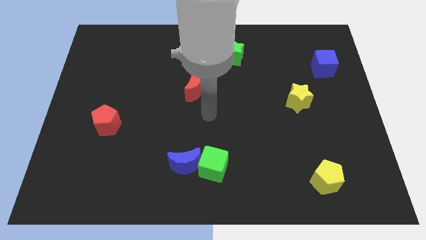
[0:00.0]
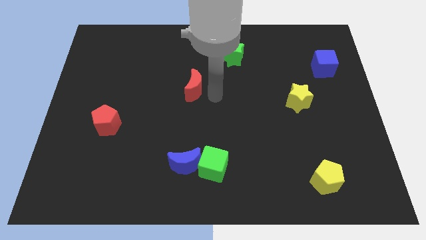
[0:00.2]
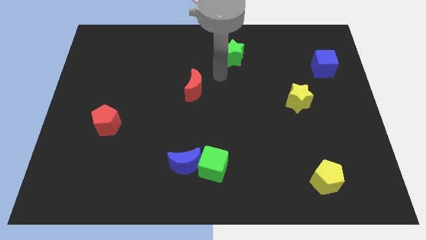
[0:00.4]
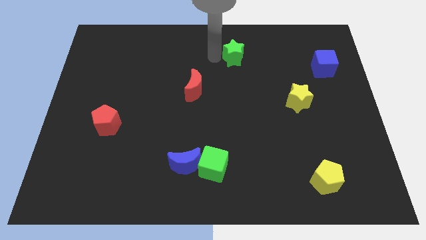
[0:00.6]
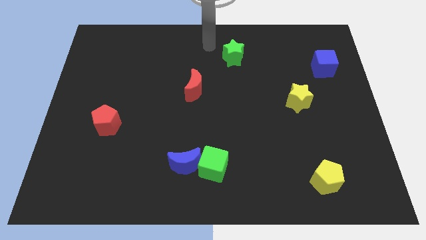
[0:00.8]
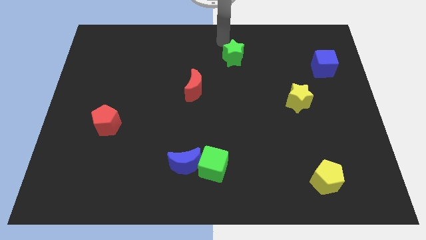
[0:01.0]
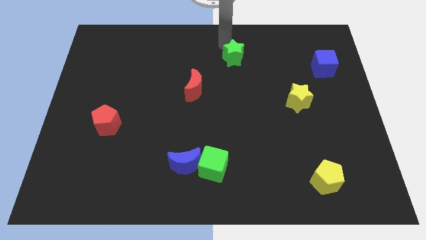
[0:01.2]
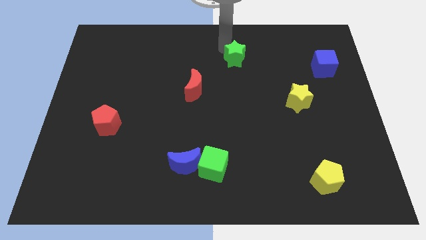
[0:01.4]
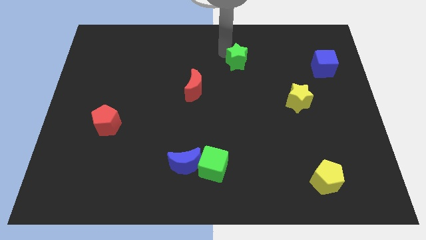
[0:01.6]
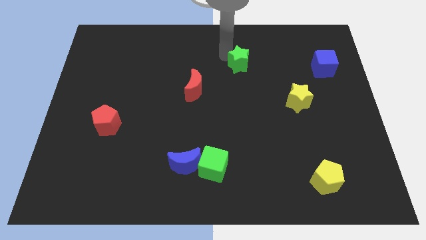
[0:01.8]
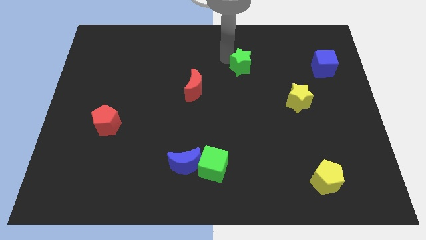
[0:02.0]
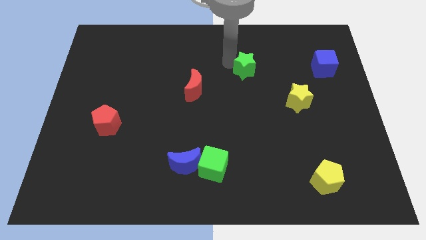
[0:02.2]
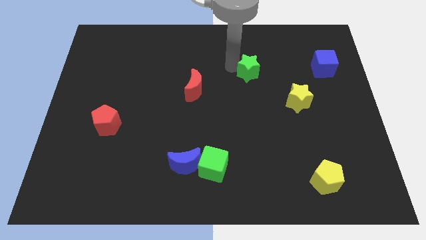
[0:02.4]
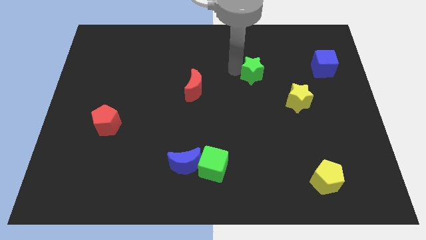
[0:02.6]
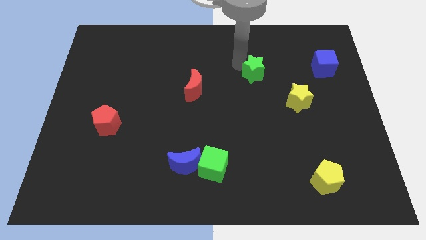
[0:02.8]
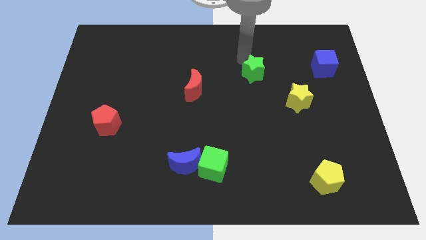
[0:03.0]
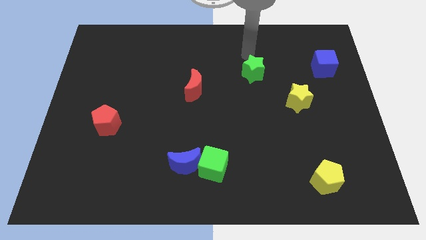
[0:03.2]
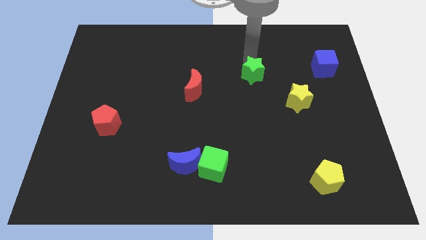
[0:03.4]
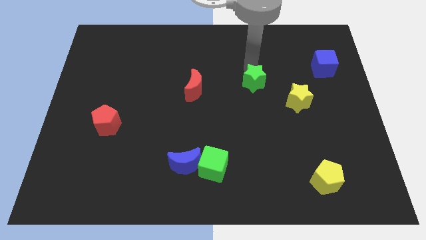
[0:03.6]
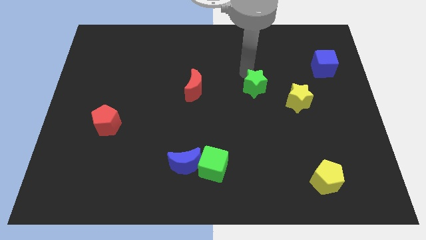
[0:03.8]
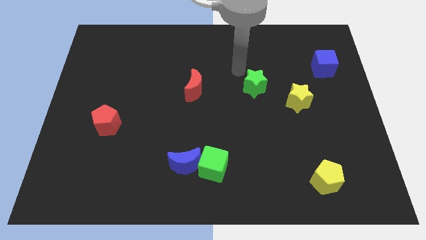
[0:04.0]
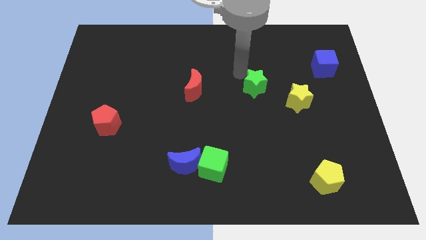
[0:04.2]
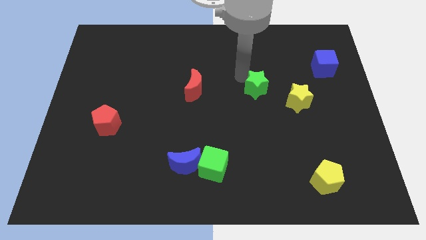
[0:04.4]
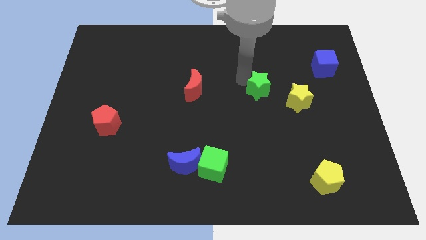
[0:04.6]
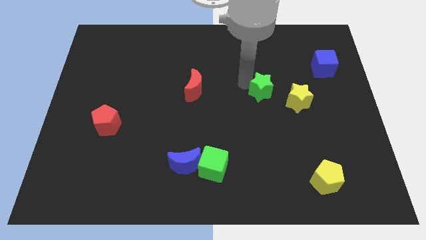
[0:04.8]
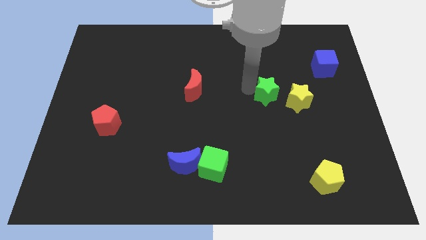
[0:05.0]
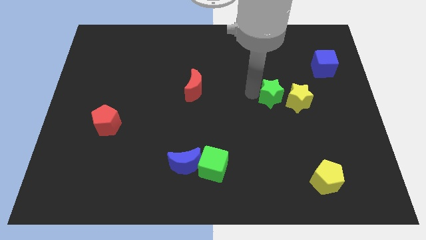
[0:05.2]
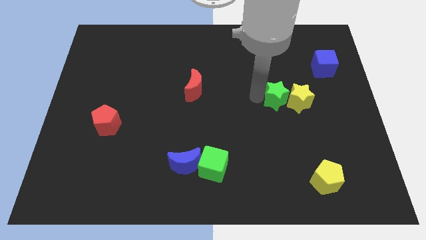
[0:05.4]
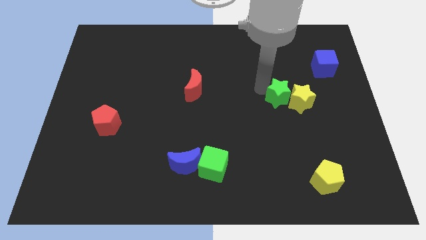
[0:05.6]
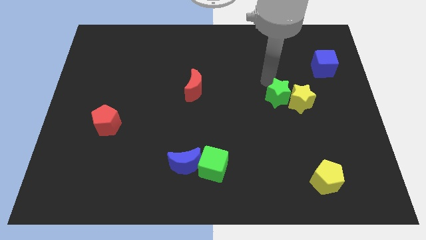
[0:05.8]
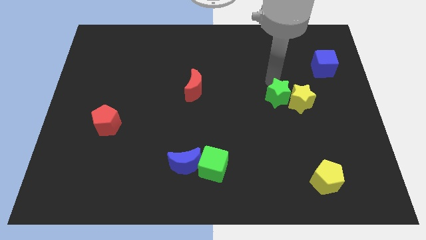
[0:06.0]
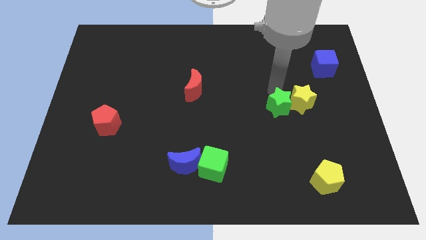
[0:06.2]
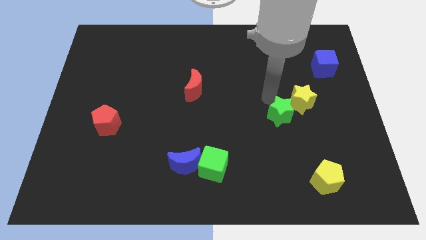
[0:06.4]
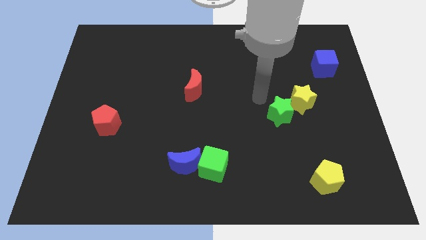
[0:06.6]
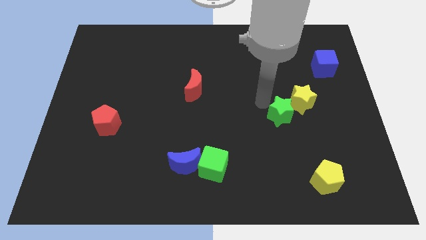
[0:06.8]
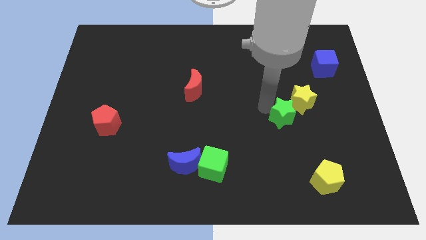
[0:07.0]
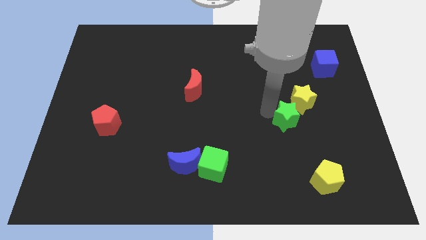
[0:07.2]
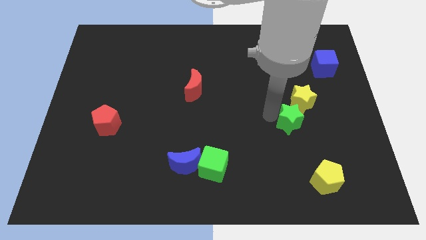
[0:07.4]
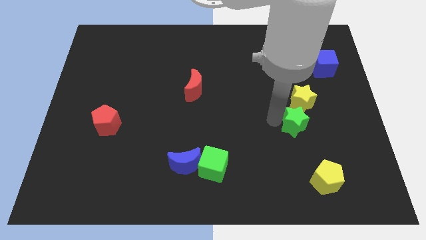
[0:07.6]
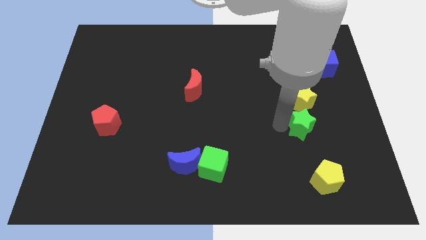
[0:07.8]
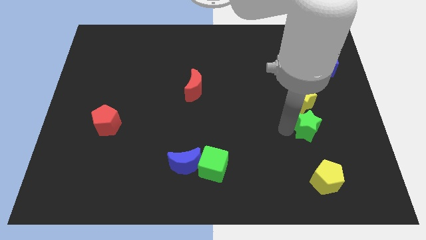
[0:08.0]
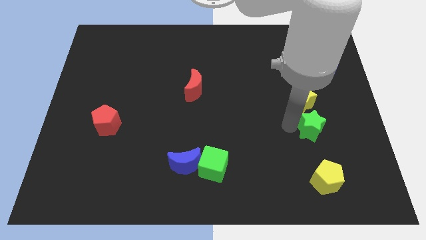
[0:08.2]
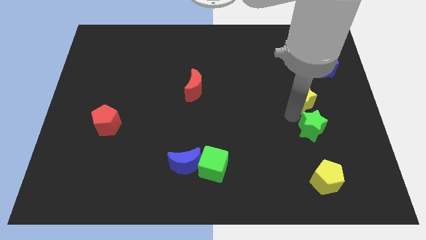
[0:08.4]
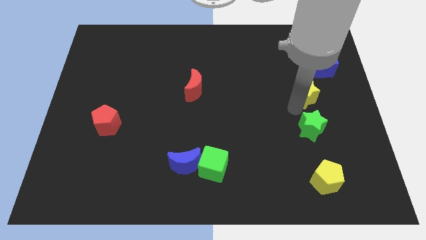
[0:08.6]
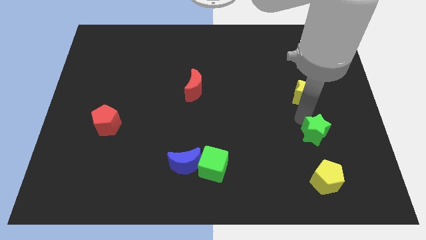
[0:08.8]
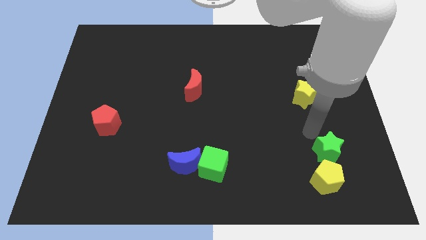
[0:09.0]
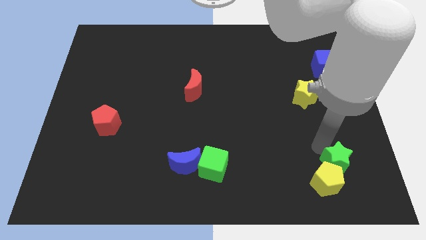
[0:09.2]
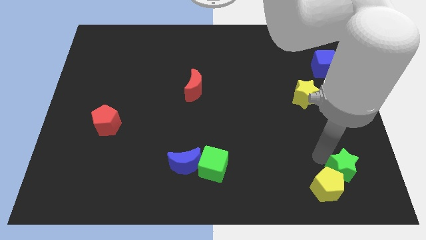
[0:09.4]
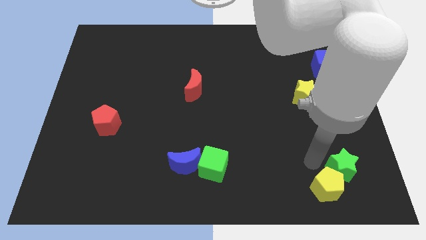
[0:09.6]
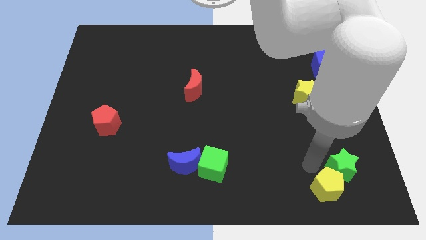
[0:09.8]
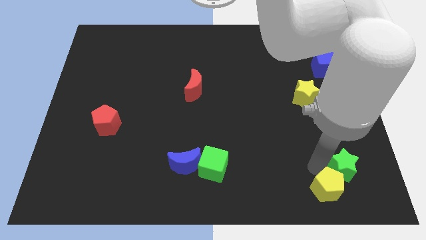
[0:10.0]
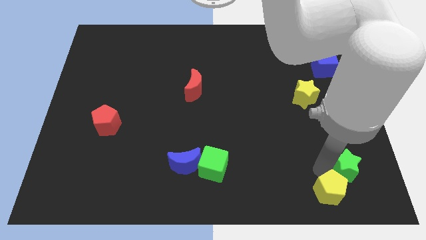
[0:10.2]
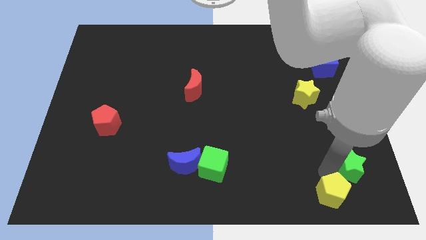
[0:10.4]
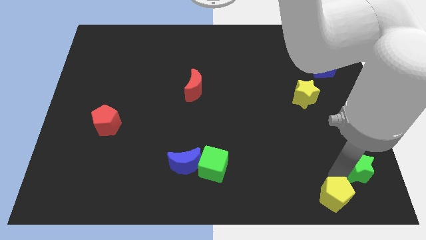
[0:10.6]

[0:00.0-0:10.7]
move the green star to the lower right corner

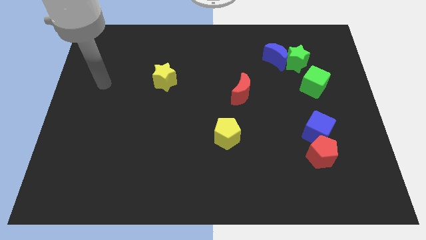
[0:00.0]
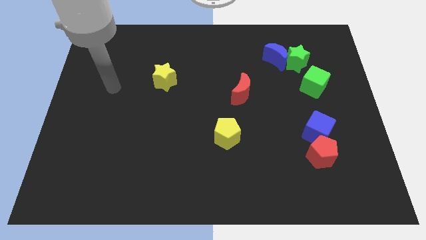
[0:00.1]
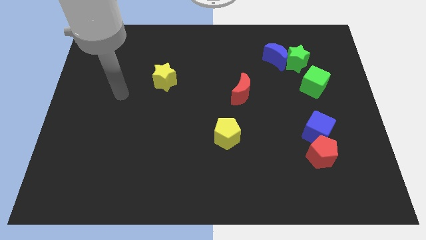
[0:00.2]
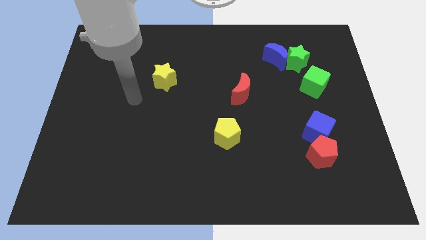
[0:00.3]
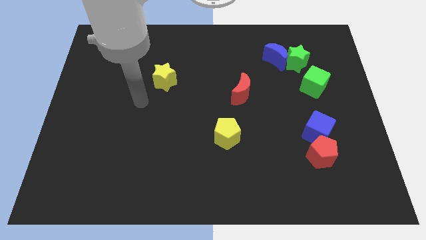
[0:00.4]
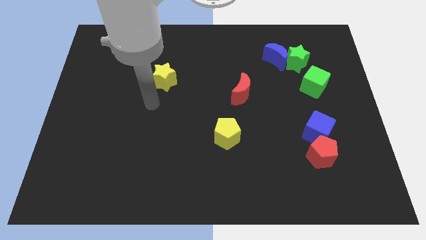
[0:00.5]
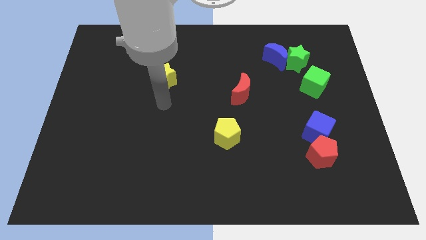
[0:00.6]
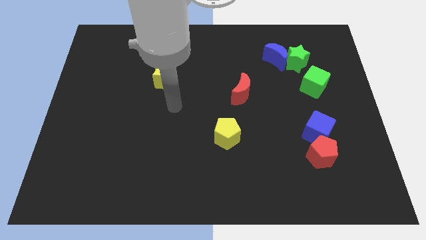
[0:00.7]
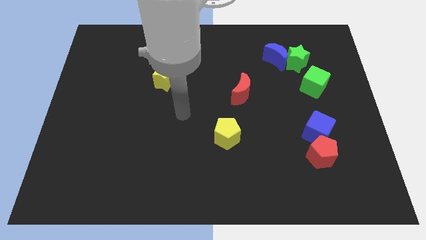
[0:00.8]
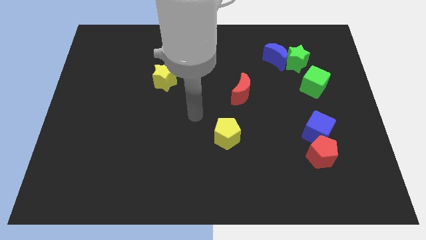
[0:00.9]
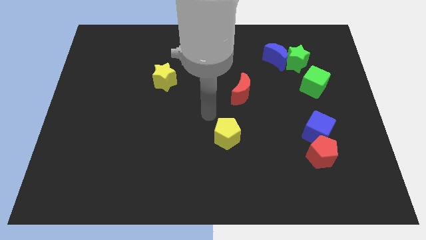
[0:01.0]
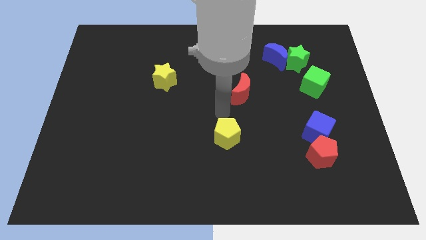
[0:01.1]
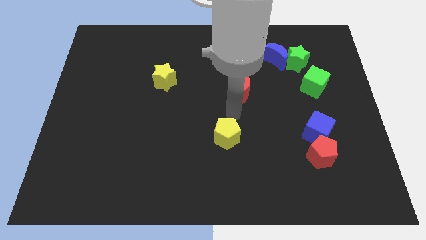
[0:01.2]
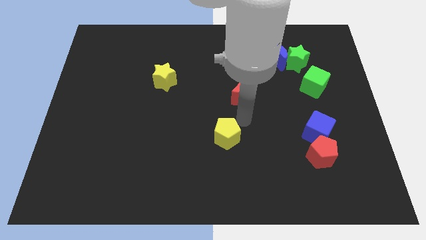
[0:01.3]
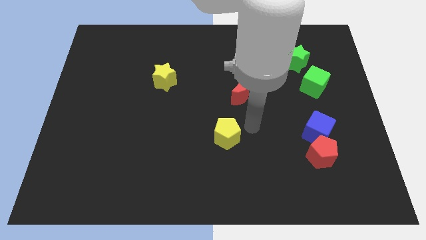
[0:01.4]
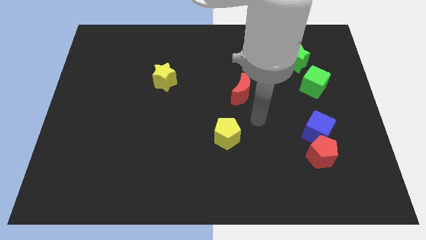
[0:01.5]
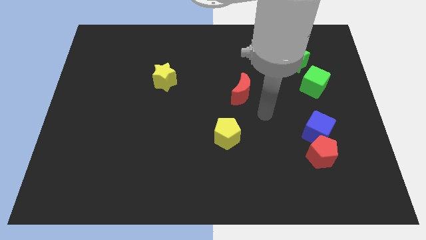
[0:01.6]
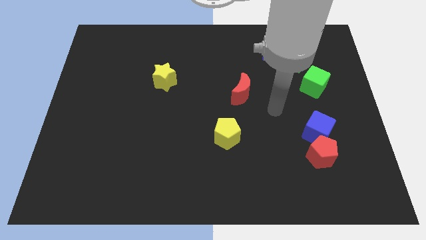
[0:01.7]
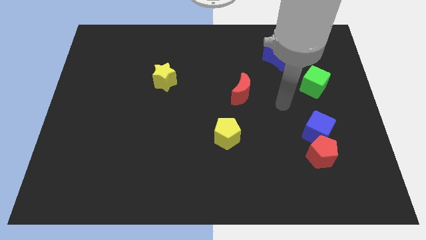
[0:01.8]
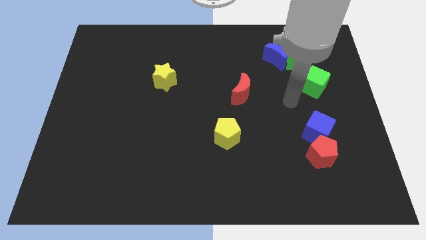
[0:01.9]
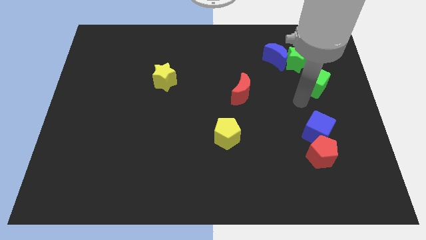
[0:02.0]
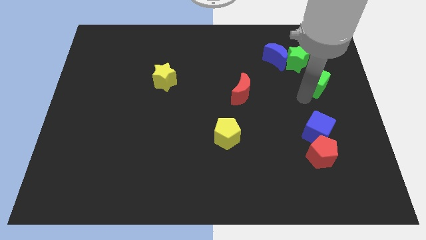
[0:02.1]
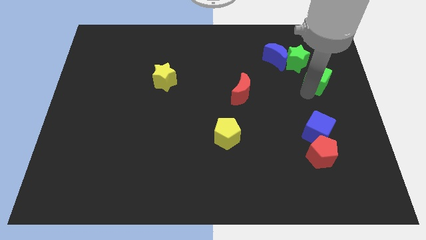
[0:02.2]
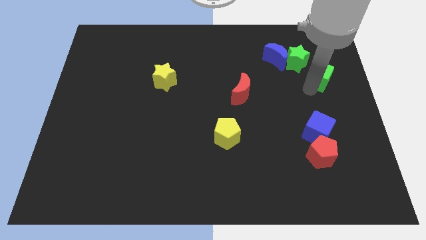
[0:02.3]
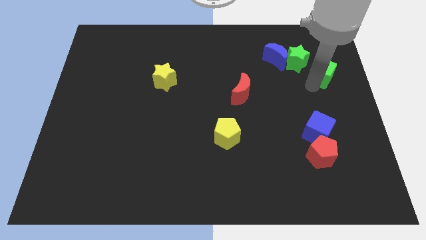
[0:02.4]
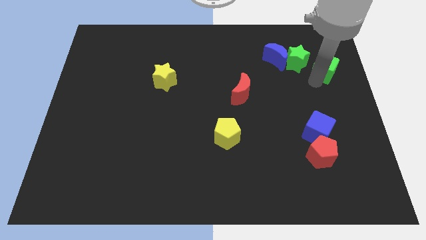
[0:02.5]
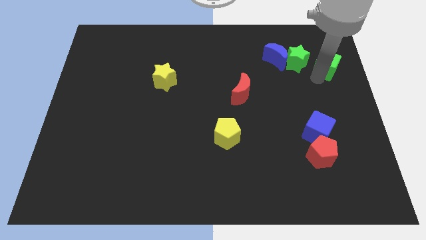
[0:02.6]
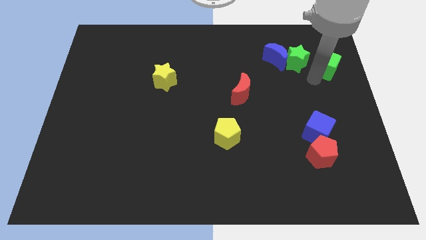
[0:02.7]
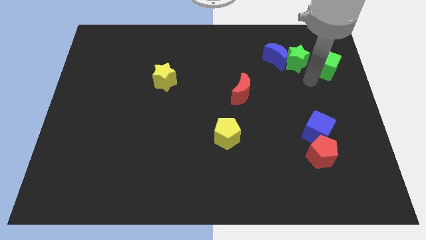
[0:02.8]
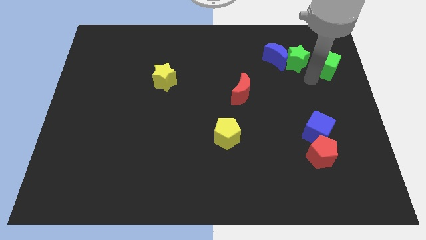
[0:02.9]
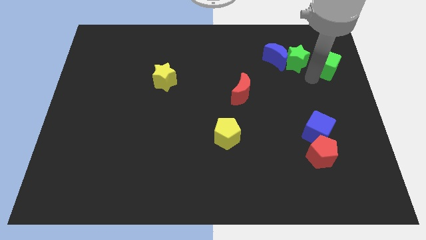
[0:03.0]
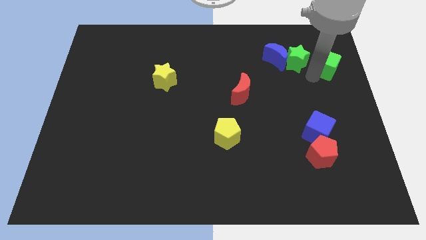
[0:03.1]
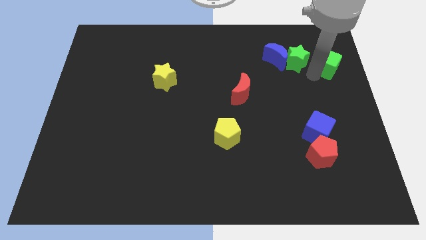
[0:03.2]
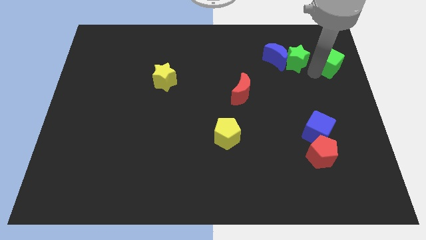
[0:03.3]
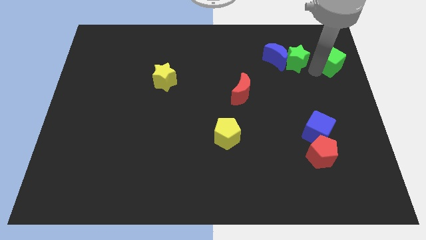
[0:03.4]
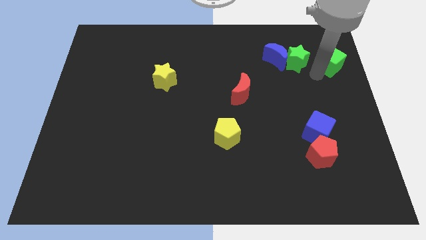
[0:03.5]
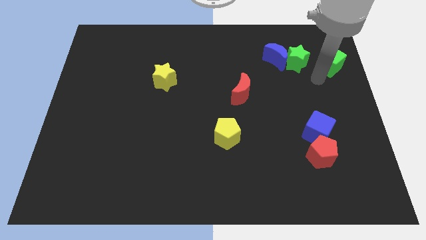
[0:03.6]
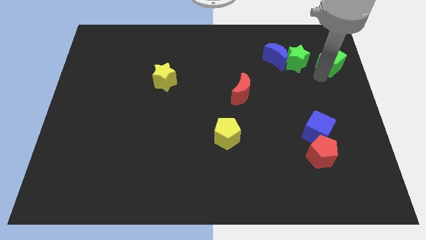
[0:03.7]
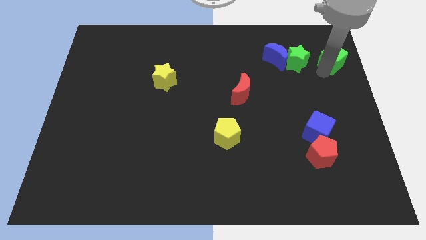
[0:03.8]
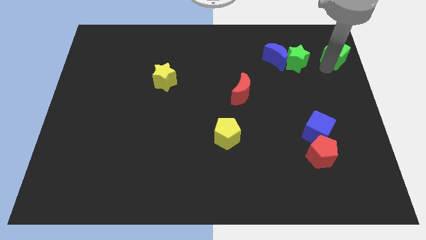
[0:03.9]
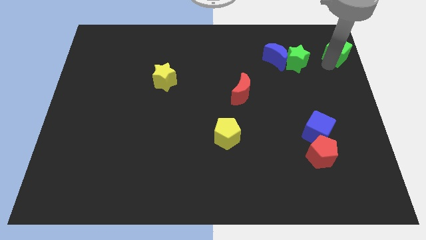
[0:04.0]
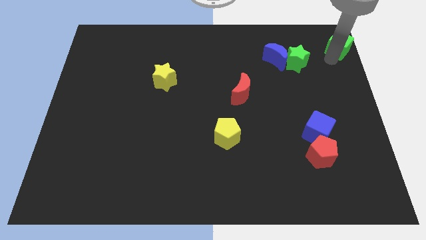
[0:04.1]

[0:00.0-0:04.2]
slide the green cube to the upper right corner
